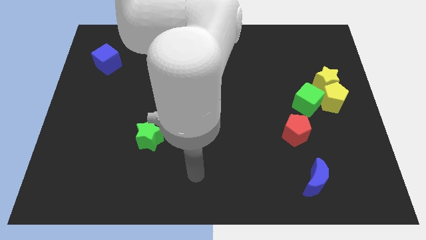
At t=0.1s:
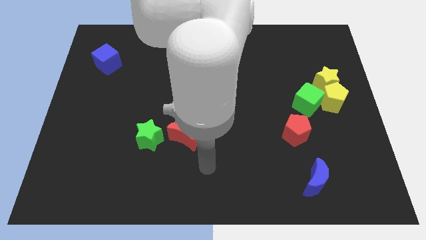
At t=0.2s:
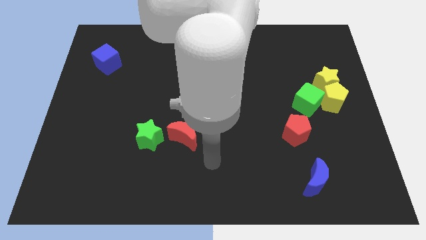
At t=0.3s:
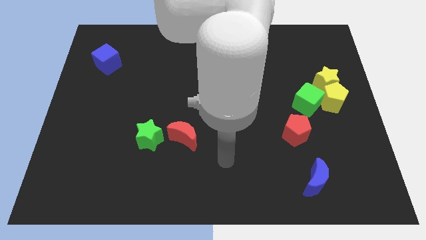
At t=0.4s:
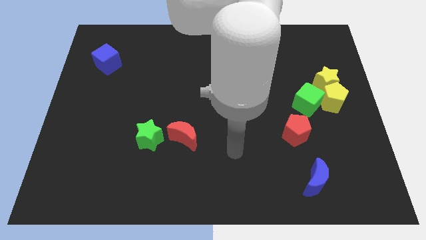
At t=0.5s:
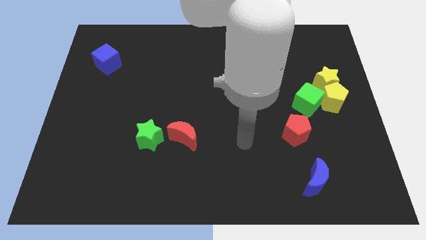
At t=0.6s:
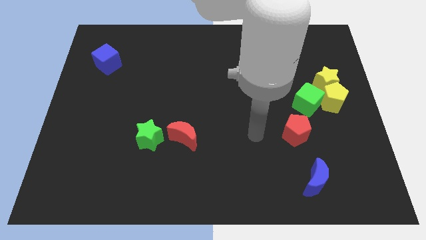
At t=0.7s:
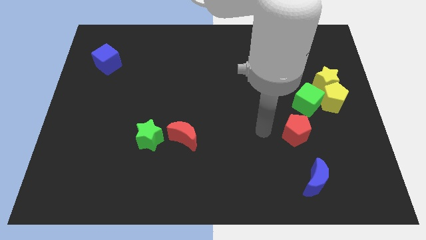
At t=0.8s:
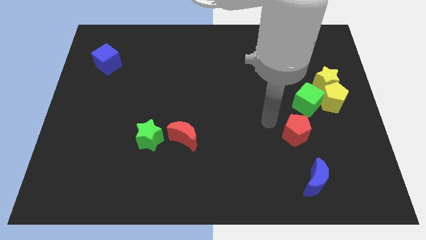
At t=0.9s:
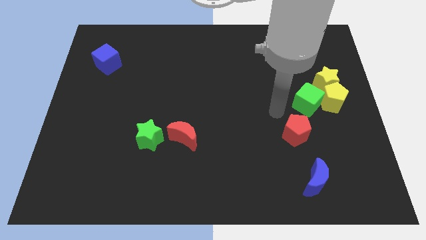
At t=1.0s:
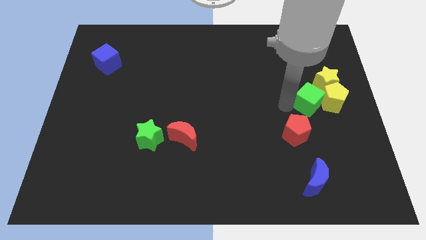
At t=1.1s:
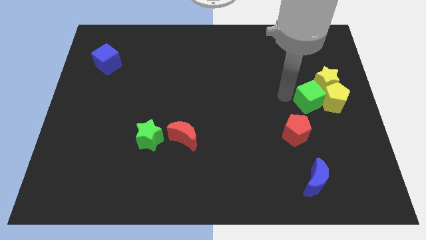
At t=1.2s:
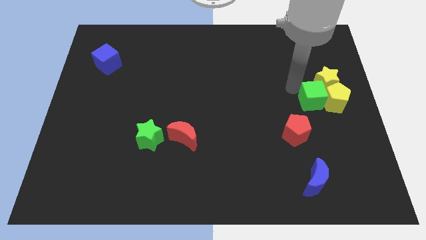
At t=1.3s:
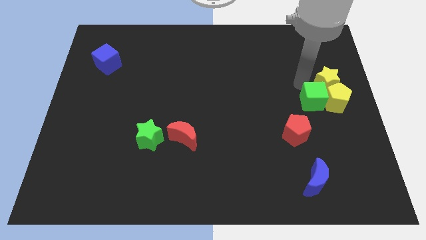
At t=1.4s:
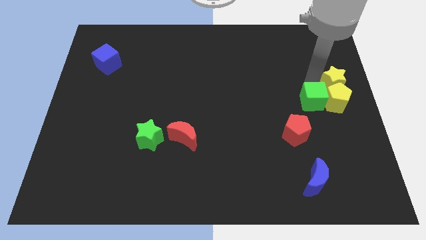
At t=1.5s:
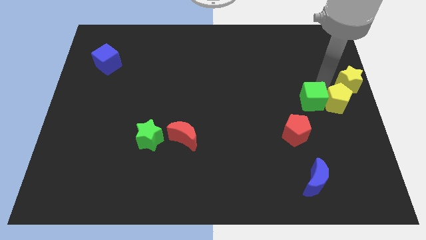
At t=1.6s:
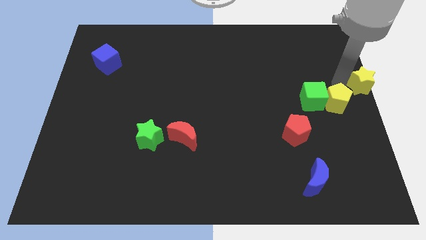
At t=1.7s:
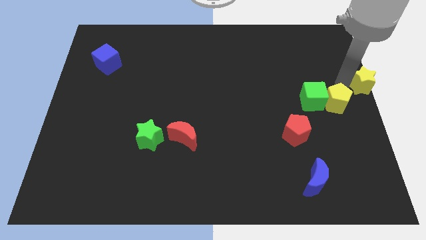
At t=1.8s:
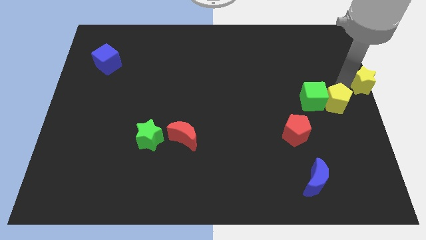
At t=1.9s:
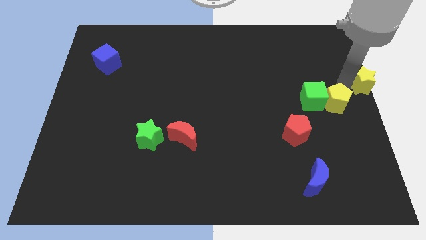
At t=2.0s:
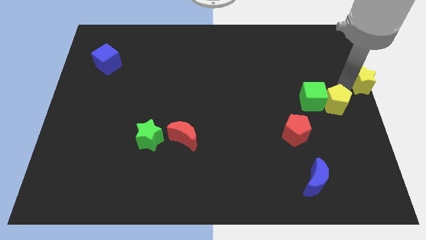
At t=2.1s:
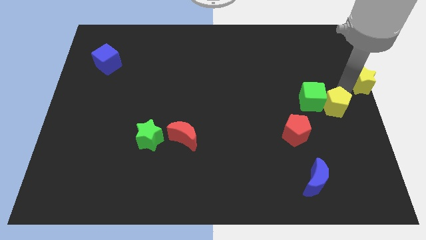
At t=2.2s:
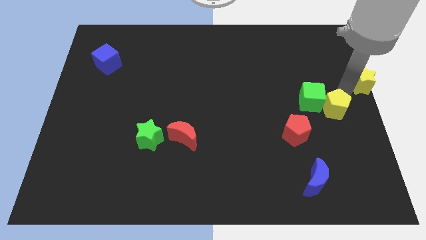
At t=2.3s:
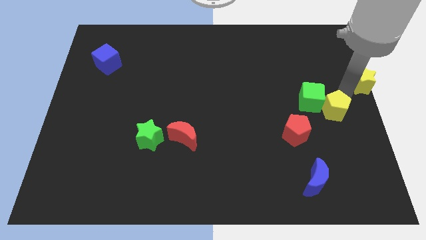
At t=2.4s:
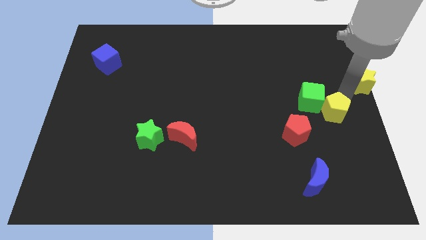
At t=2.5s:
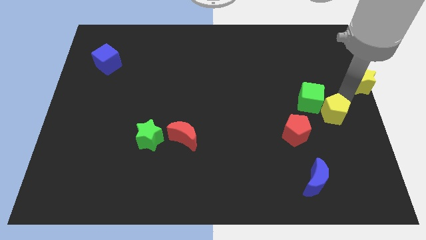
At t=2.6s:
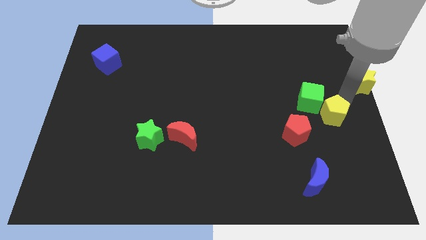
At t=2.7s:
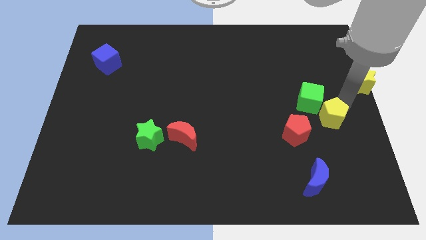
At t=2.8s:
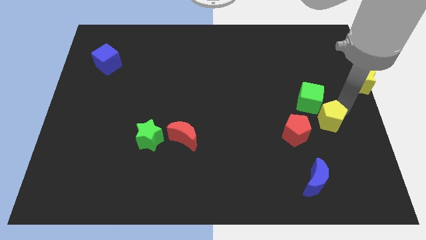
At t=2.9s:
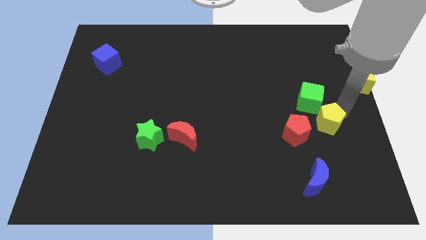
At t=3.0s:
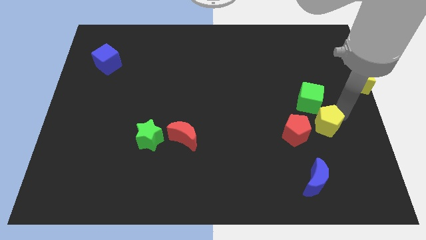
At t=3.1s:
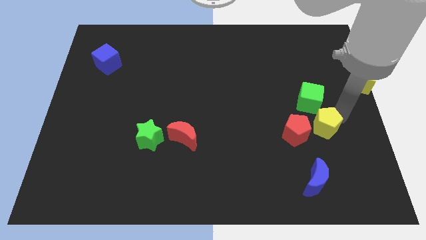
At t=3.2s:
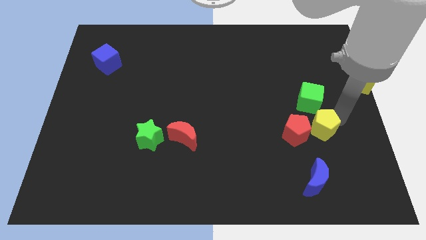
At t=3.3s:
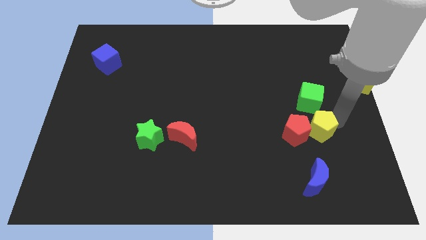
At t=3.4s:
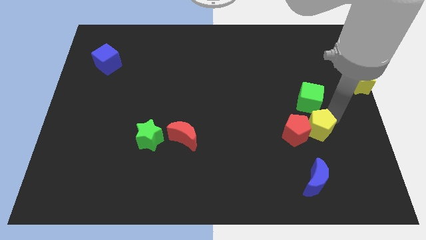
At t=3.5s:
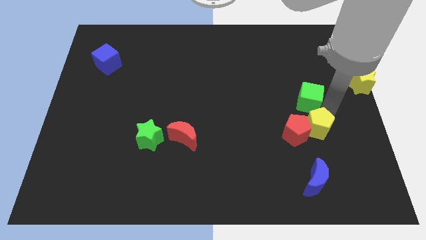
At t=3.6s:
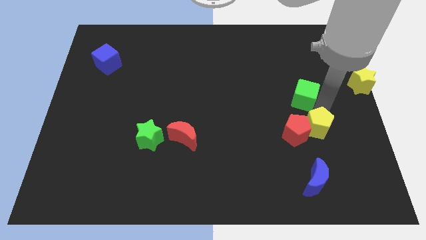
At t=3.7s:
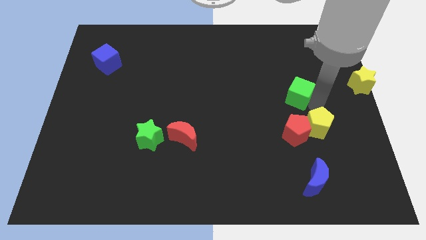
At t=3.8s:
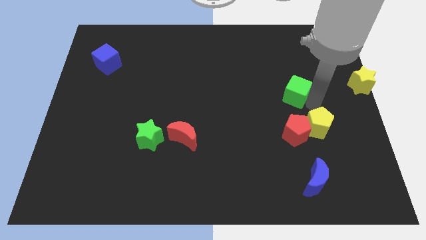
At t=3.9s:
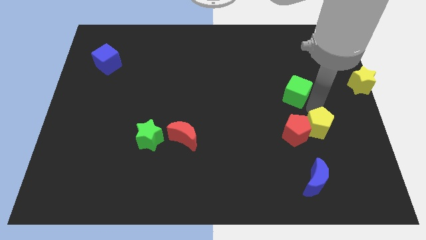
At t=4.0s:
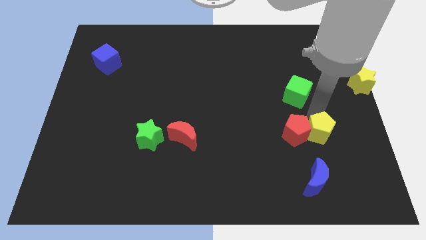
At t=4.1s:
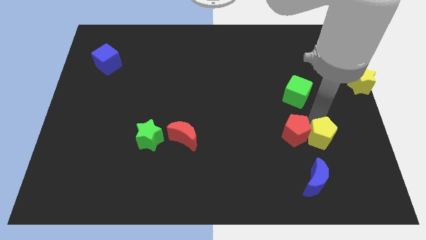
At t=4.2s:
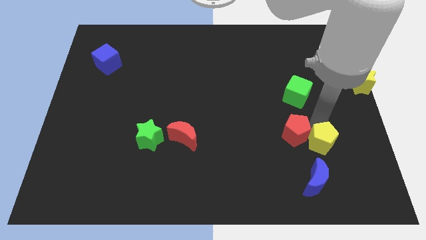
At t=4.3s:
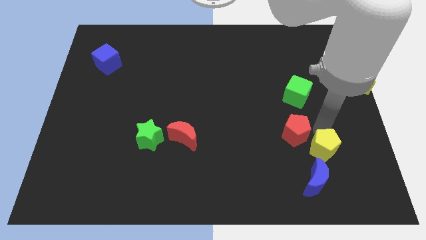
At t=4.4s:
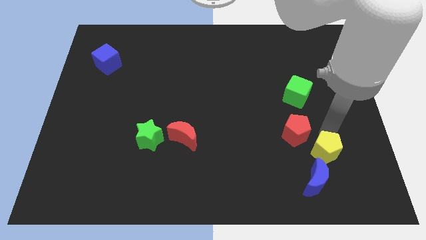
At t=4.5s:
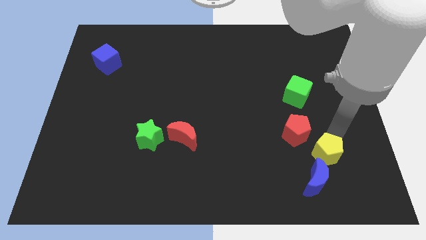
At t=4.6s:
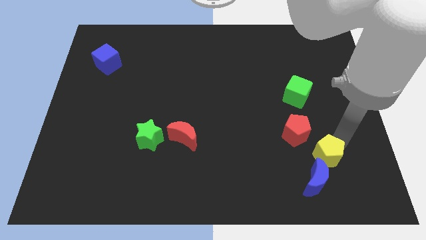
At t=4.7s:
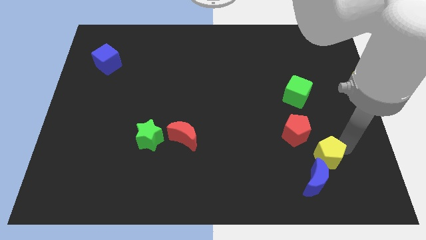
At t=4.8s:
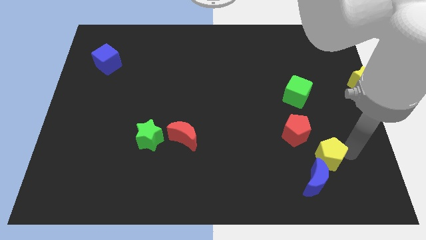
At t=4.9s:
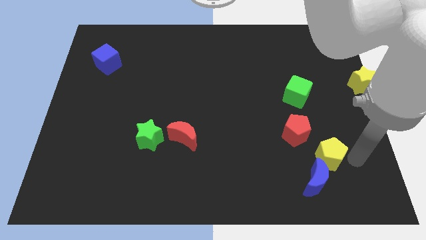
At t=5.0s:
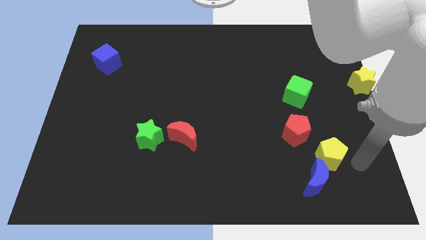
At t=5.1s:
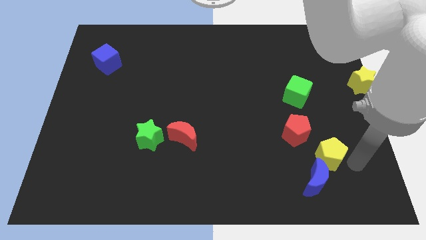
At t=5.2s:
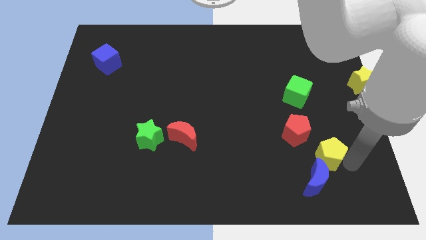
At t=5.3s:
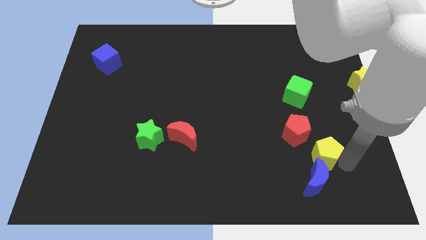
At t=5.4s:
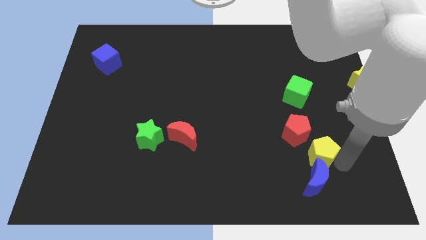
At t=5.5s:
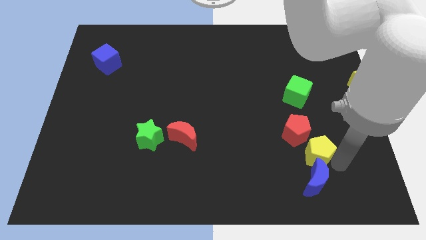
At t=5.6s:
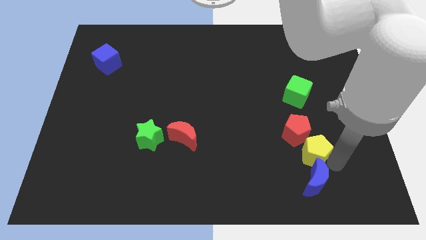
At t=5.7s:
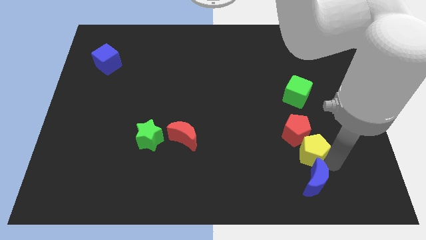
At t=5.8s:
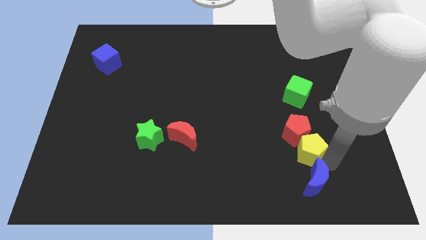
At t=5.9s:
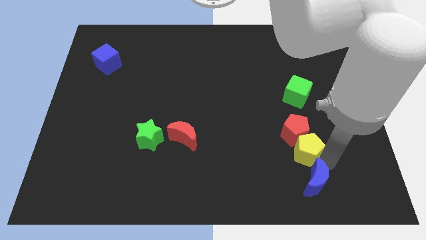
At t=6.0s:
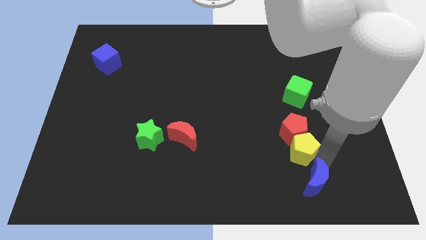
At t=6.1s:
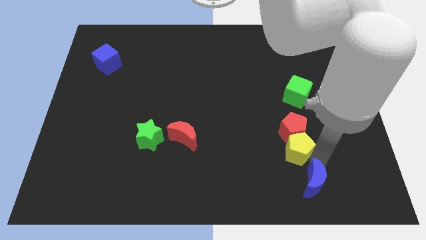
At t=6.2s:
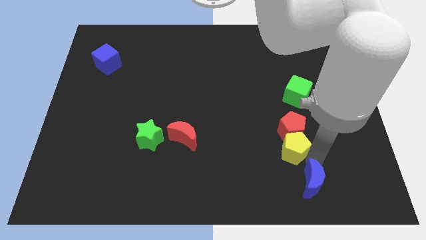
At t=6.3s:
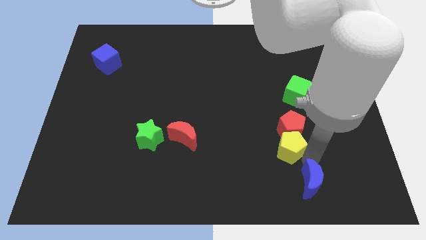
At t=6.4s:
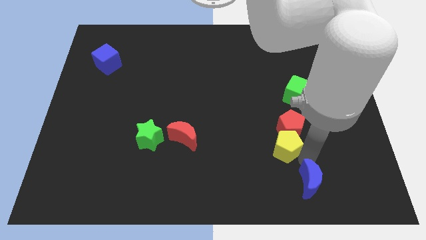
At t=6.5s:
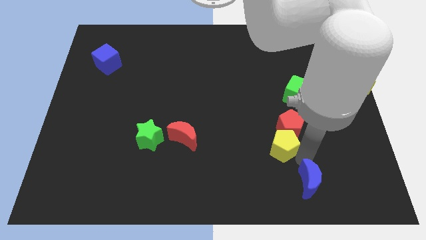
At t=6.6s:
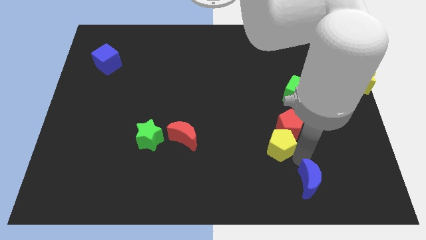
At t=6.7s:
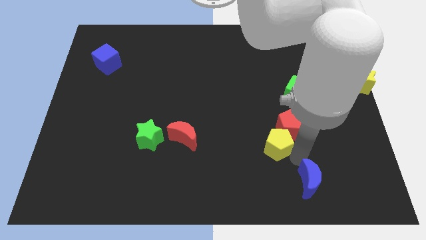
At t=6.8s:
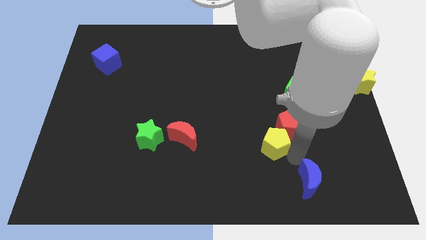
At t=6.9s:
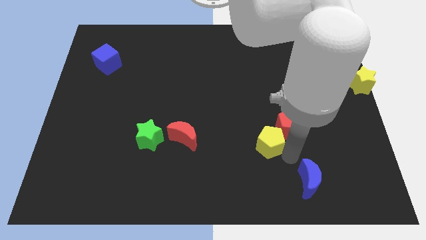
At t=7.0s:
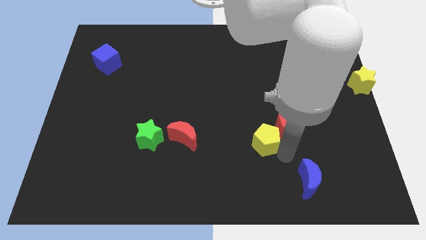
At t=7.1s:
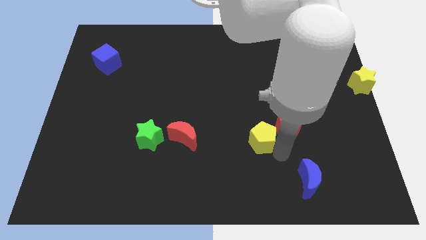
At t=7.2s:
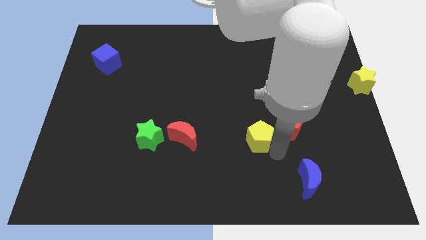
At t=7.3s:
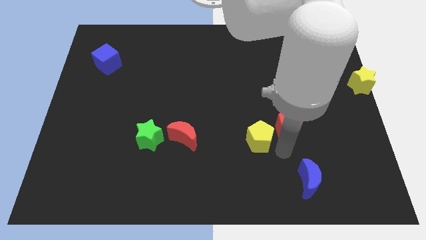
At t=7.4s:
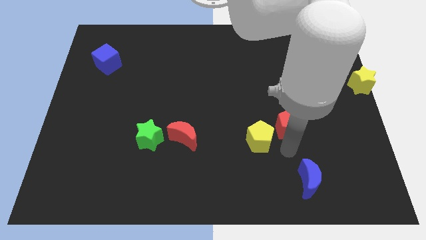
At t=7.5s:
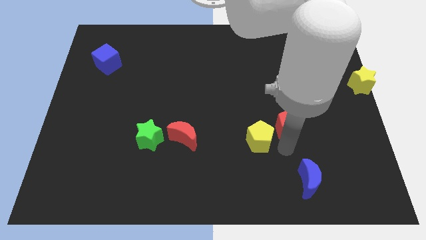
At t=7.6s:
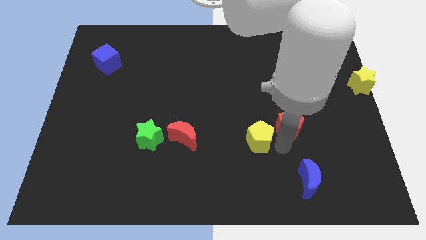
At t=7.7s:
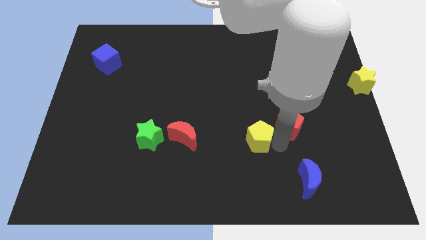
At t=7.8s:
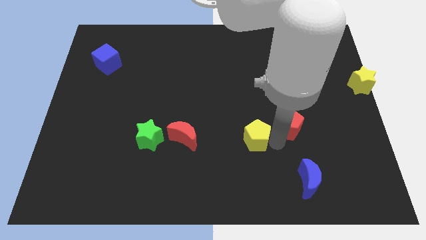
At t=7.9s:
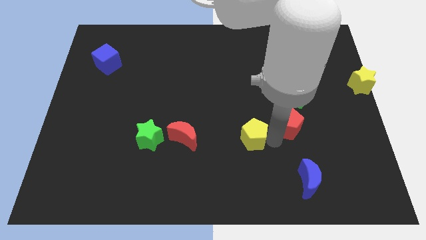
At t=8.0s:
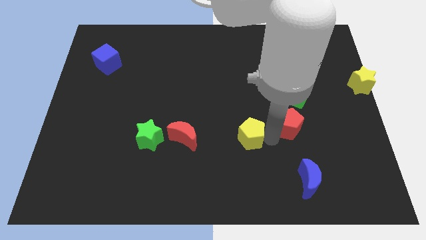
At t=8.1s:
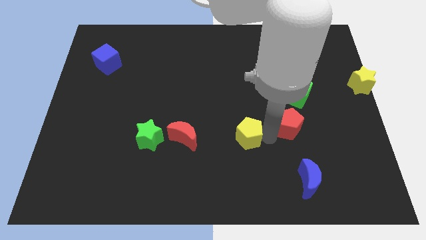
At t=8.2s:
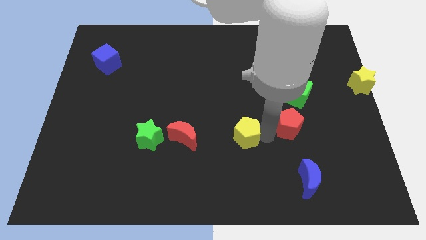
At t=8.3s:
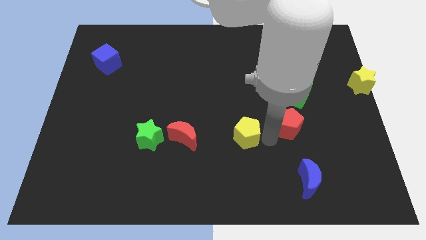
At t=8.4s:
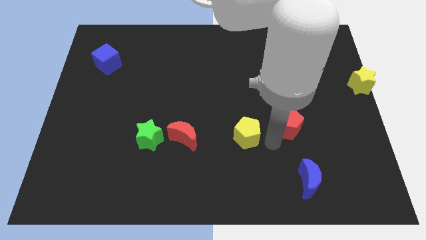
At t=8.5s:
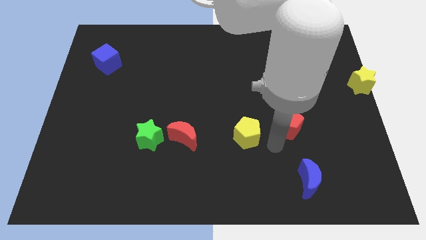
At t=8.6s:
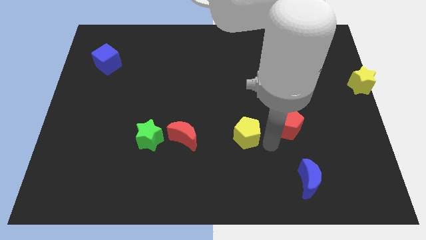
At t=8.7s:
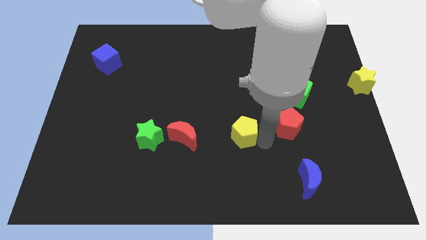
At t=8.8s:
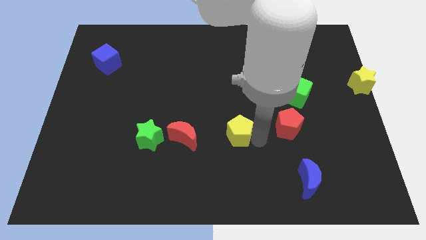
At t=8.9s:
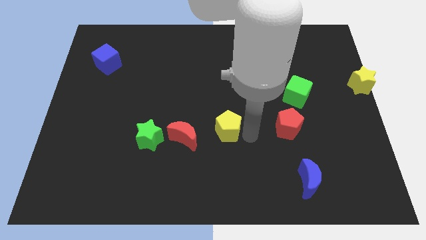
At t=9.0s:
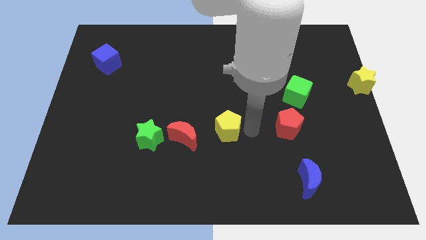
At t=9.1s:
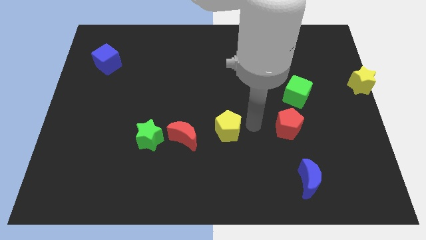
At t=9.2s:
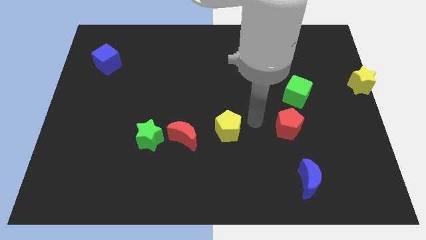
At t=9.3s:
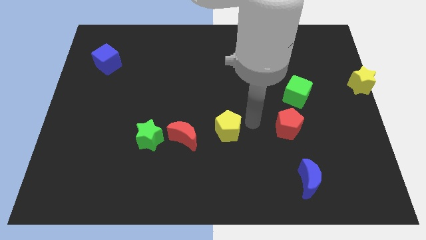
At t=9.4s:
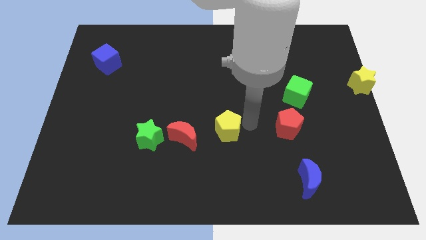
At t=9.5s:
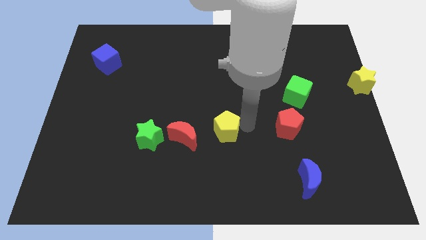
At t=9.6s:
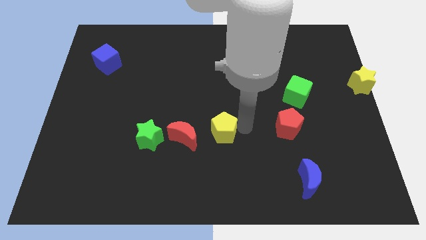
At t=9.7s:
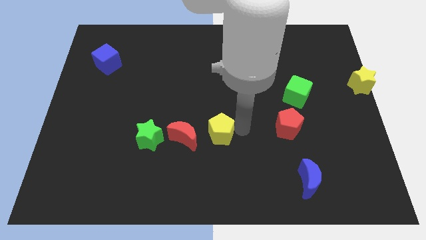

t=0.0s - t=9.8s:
push the yellow pentagon to the right side of the green star
